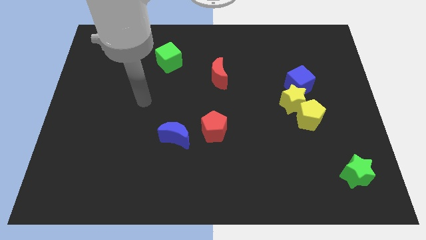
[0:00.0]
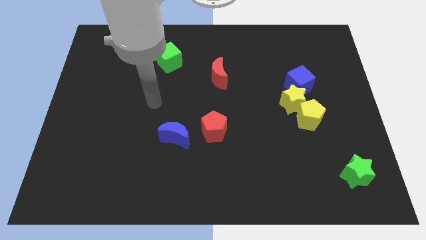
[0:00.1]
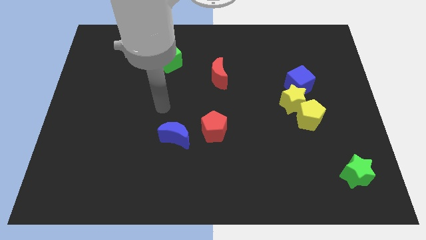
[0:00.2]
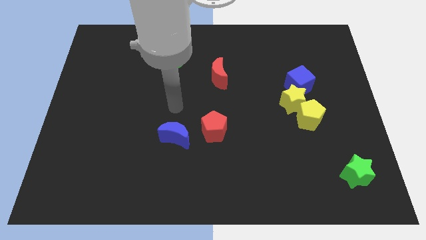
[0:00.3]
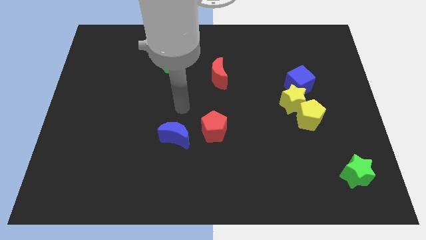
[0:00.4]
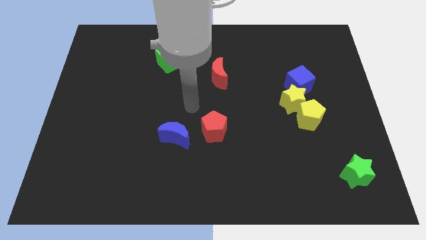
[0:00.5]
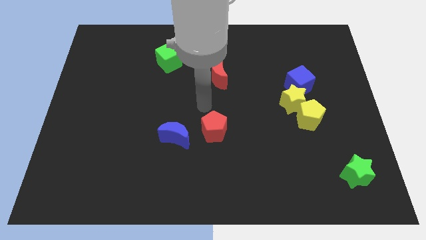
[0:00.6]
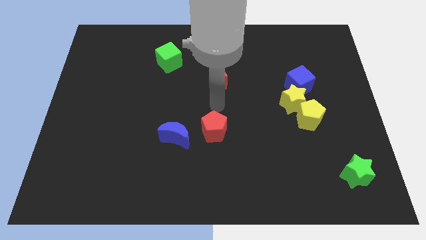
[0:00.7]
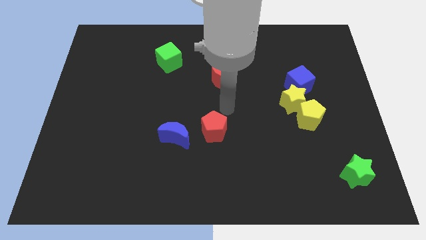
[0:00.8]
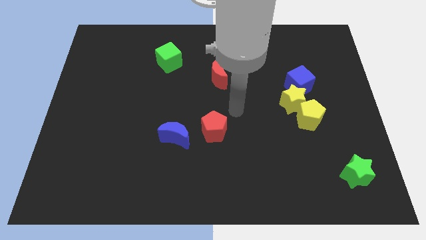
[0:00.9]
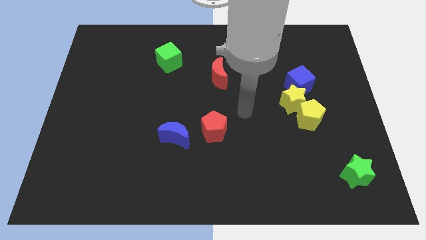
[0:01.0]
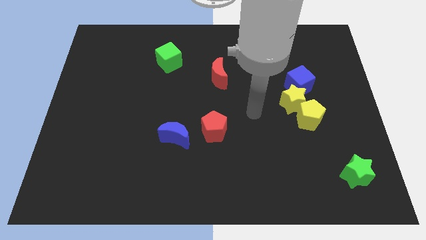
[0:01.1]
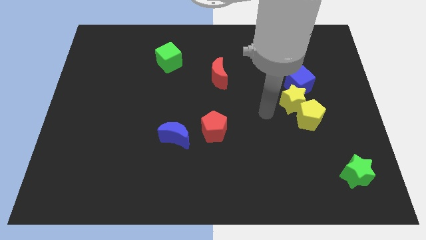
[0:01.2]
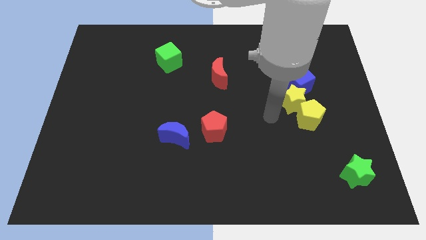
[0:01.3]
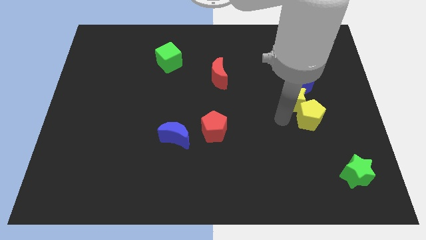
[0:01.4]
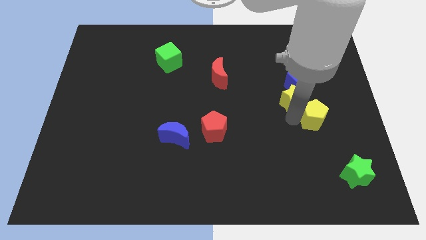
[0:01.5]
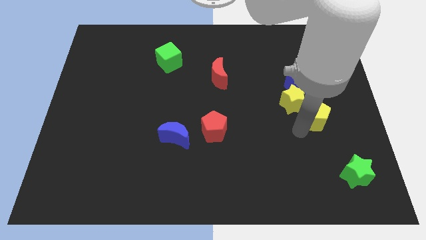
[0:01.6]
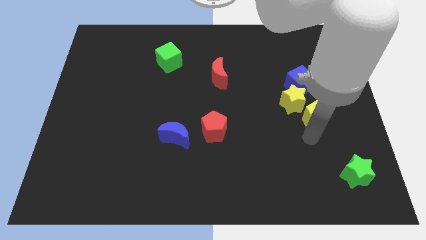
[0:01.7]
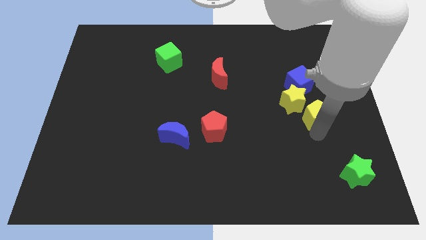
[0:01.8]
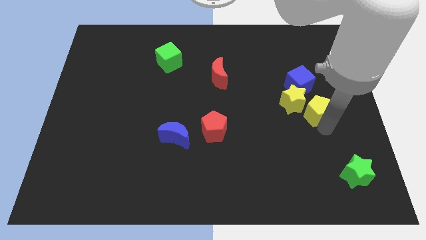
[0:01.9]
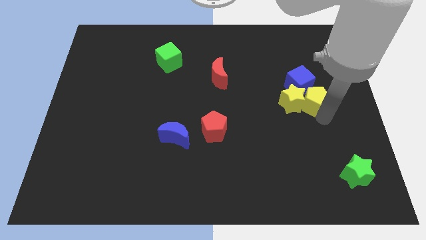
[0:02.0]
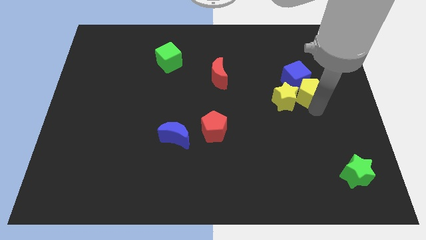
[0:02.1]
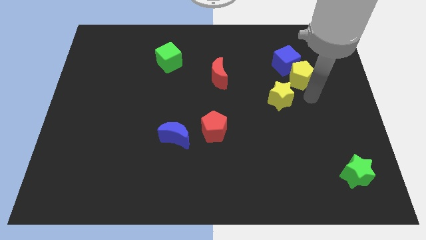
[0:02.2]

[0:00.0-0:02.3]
pull the yellow star apart from the yellow pentagon and blue cube

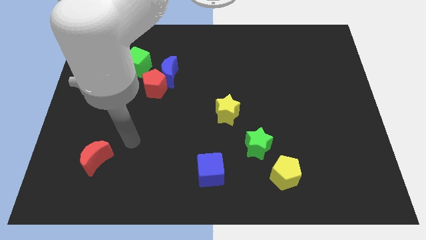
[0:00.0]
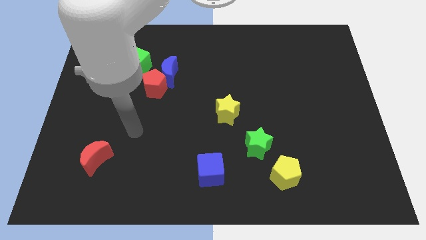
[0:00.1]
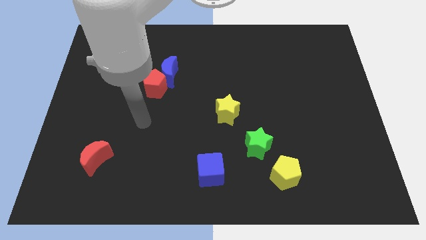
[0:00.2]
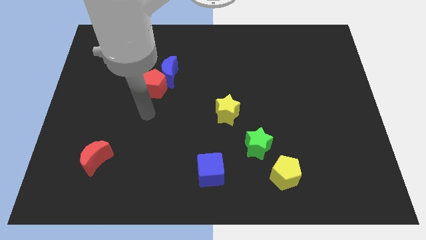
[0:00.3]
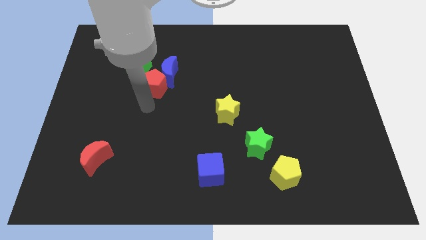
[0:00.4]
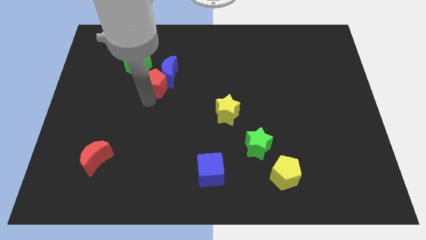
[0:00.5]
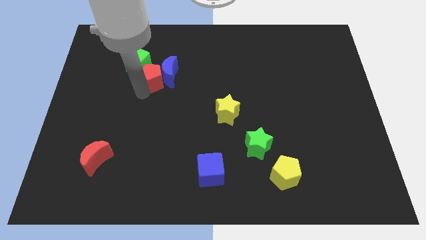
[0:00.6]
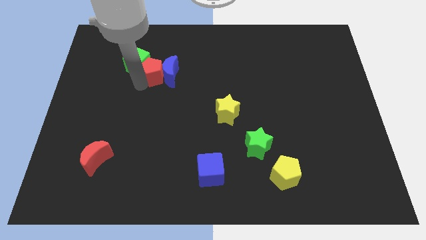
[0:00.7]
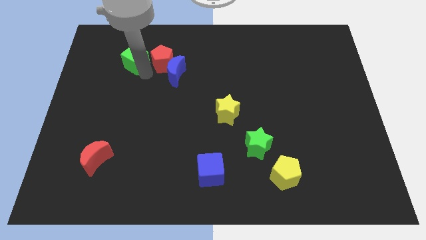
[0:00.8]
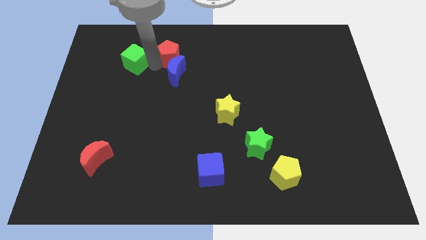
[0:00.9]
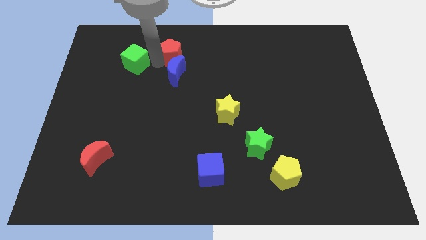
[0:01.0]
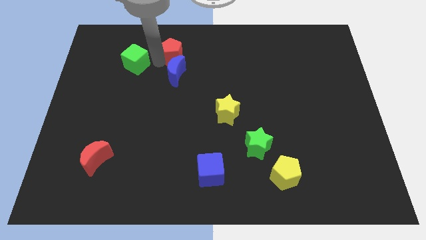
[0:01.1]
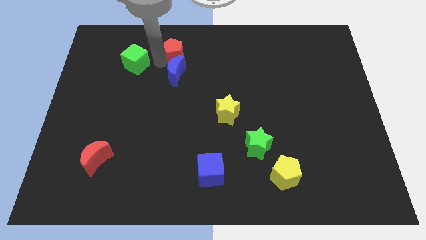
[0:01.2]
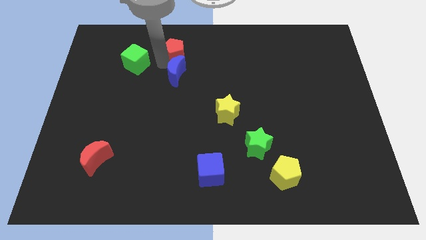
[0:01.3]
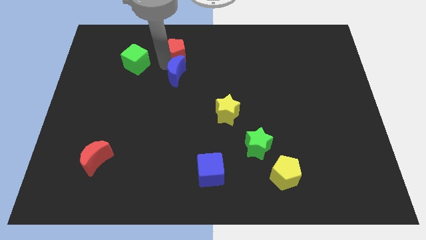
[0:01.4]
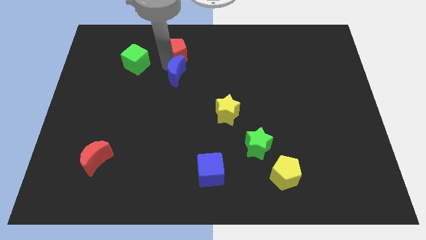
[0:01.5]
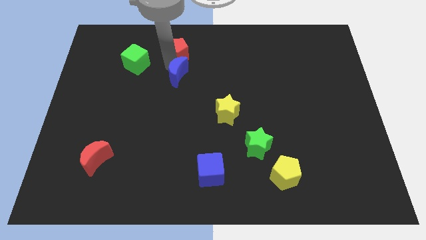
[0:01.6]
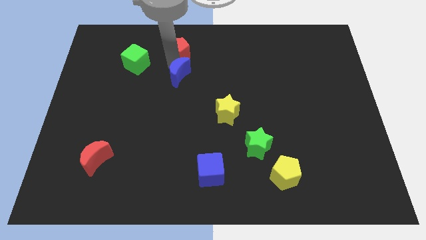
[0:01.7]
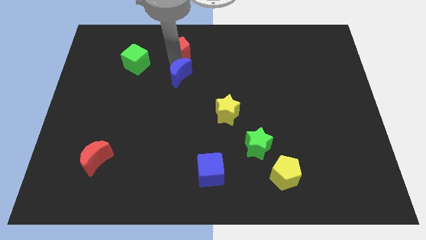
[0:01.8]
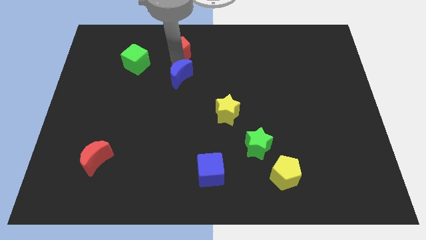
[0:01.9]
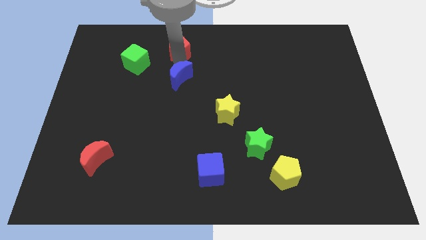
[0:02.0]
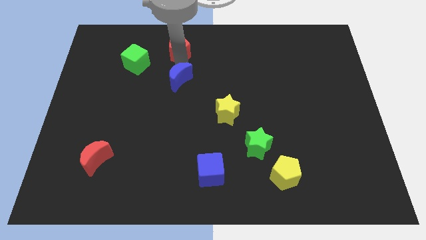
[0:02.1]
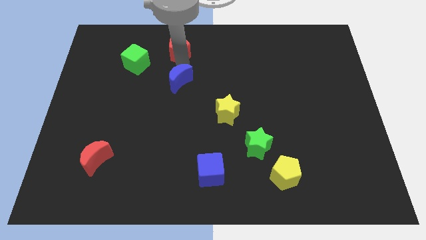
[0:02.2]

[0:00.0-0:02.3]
move the blue moon away from the red pentagon and green cube

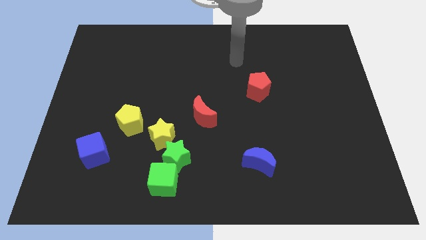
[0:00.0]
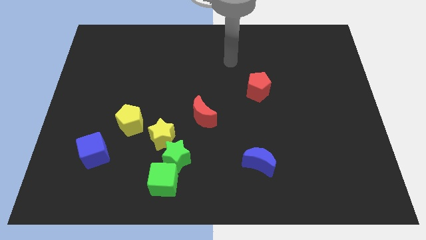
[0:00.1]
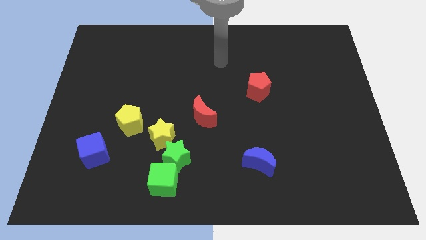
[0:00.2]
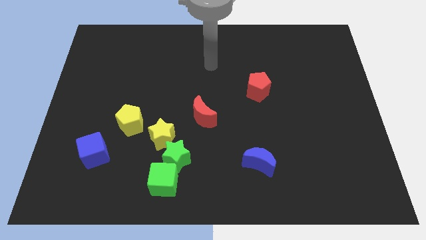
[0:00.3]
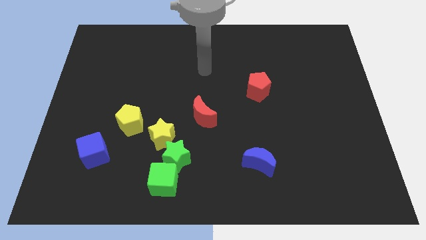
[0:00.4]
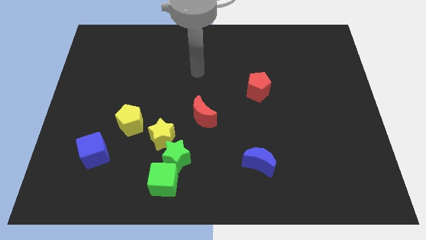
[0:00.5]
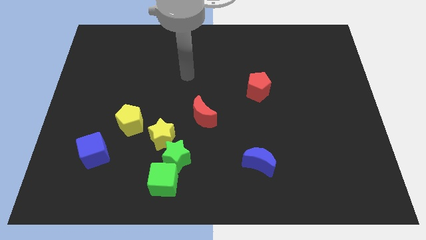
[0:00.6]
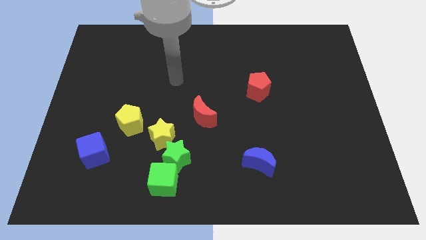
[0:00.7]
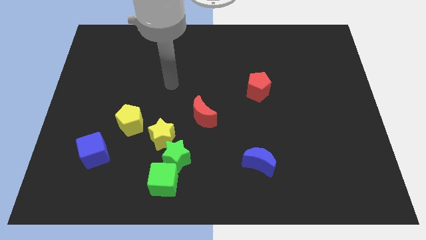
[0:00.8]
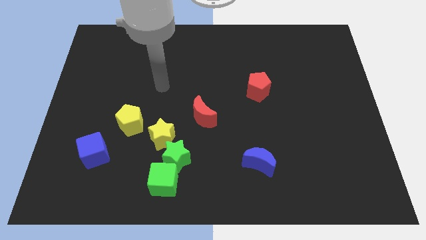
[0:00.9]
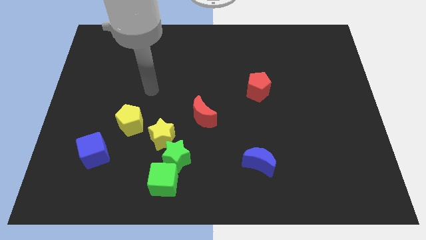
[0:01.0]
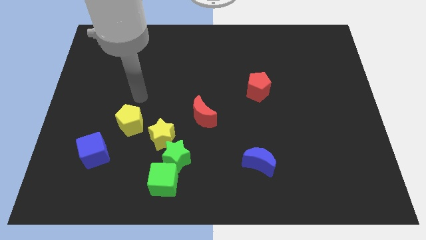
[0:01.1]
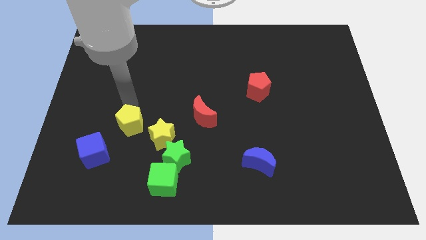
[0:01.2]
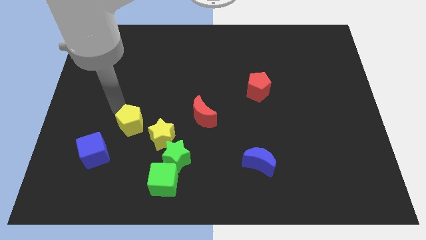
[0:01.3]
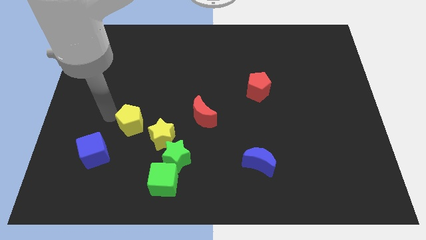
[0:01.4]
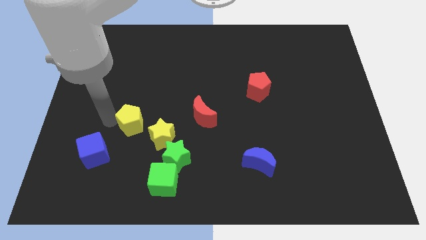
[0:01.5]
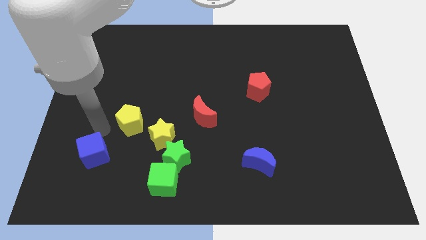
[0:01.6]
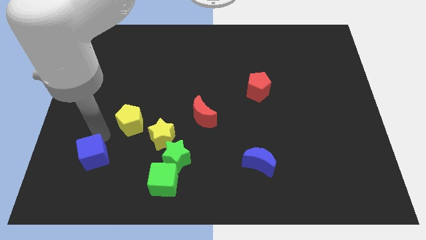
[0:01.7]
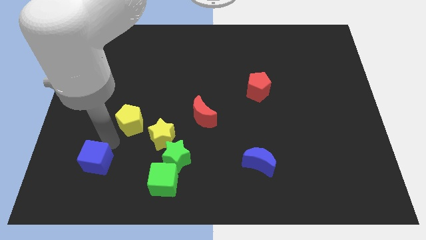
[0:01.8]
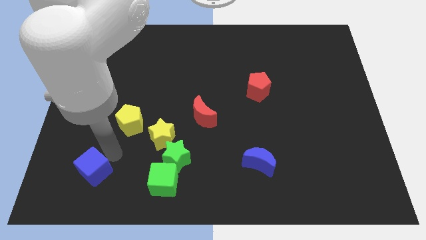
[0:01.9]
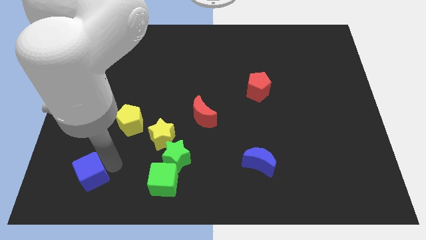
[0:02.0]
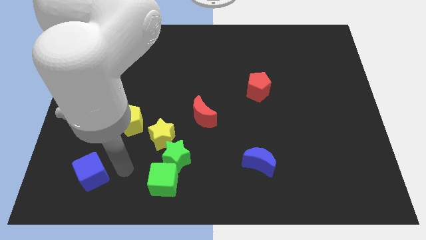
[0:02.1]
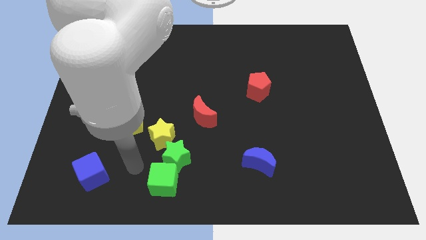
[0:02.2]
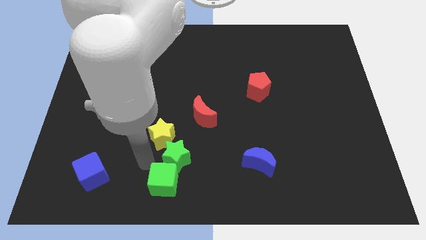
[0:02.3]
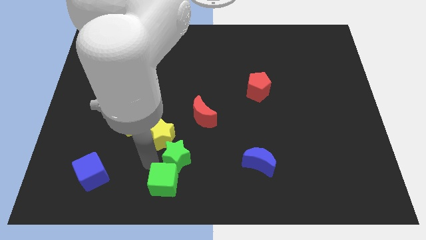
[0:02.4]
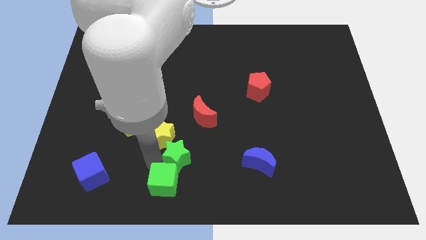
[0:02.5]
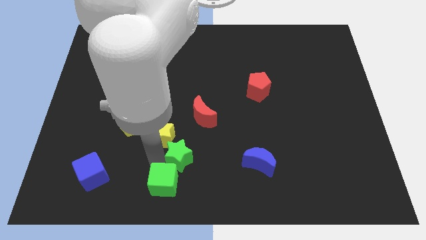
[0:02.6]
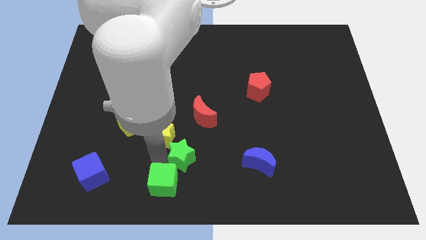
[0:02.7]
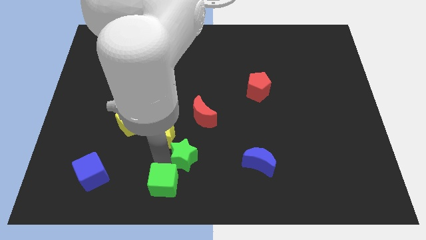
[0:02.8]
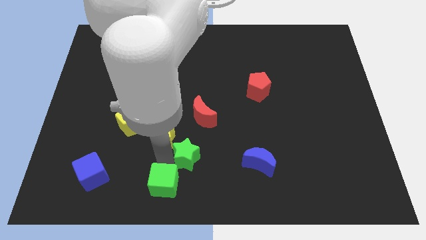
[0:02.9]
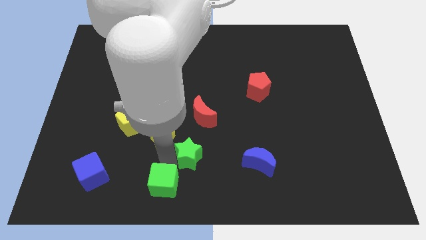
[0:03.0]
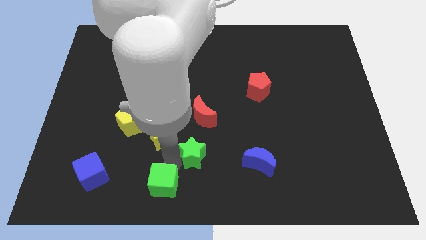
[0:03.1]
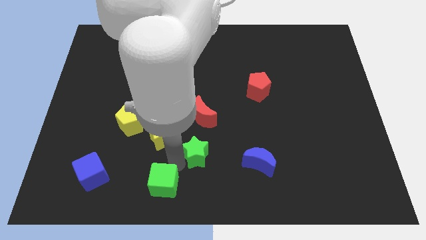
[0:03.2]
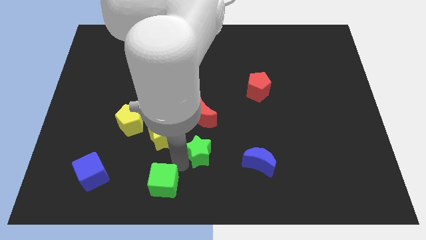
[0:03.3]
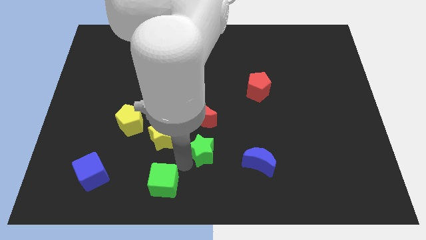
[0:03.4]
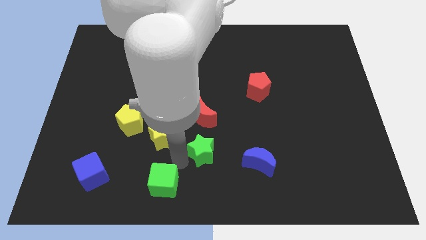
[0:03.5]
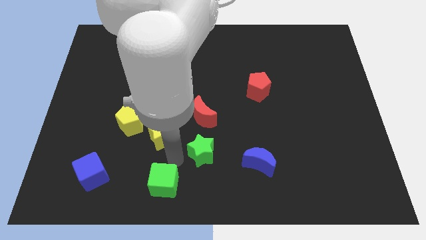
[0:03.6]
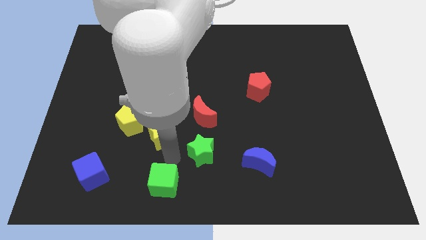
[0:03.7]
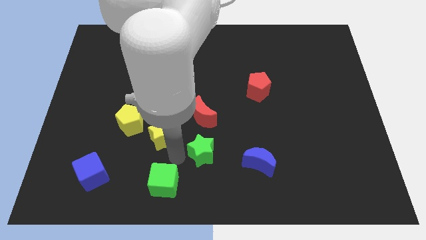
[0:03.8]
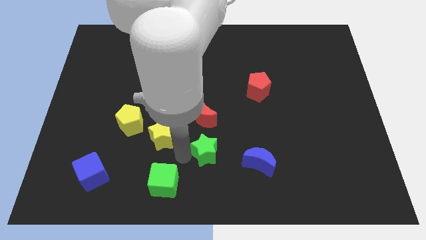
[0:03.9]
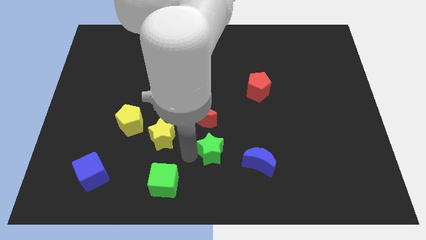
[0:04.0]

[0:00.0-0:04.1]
move the green star away from the yellow star and green cube

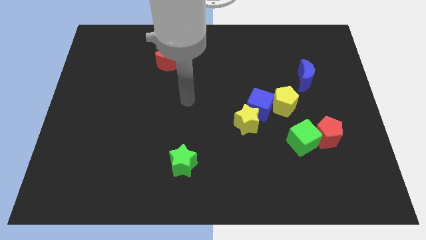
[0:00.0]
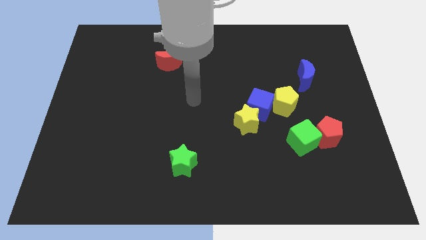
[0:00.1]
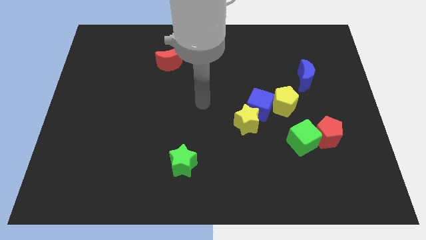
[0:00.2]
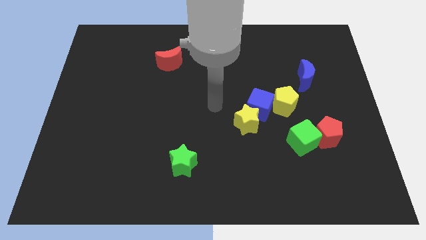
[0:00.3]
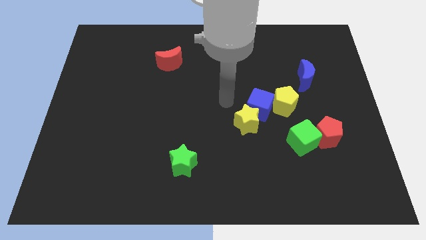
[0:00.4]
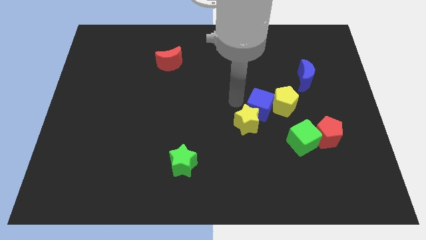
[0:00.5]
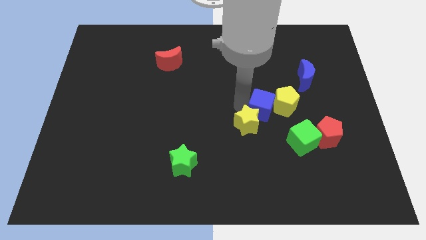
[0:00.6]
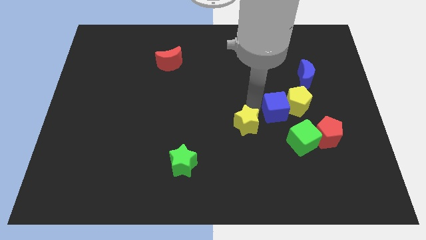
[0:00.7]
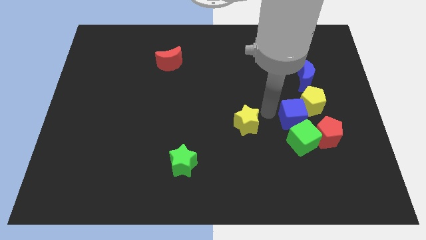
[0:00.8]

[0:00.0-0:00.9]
move the yellow star away from the blue cube
